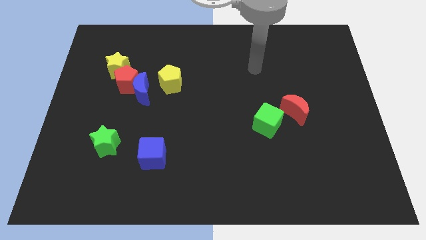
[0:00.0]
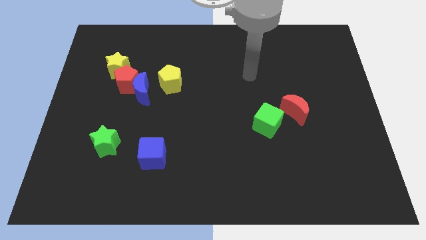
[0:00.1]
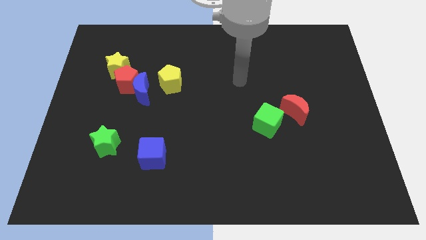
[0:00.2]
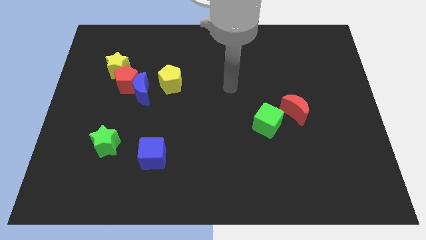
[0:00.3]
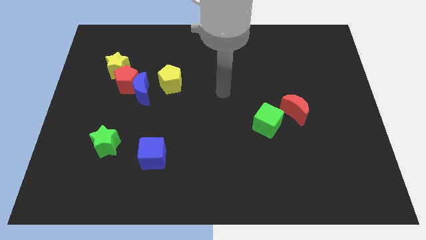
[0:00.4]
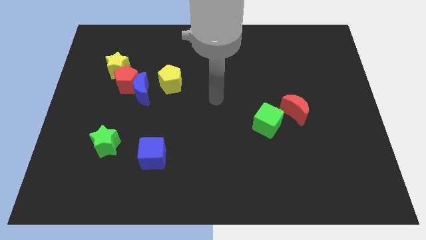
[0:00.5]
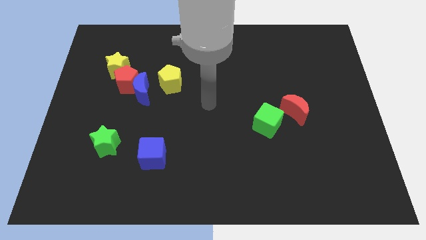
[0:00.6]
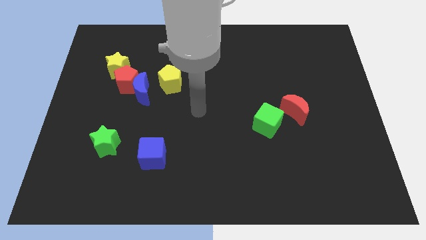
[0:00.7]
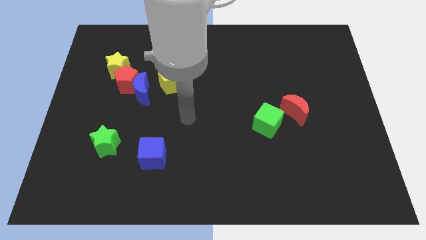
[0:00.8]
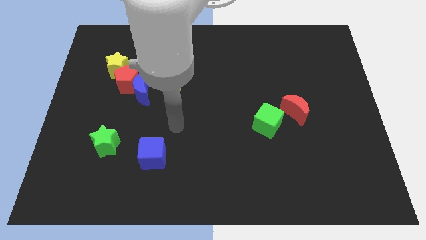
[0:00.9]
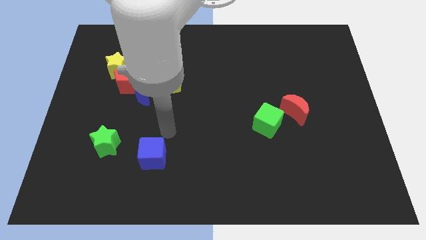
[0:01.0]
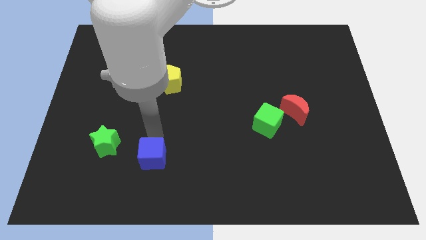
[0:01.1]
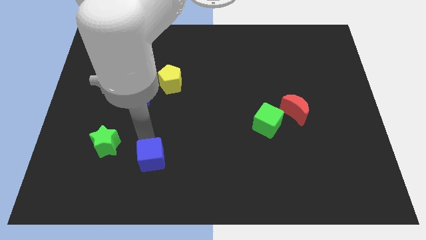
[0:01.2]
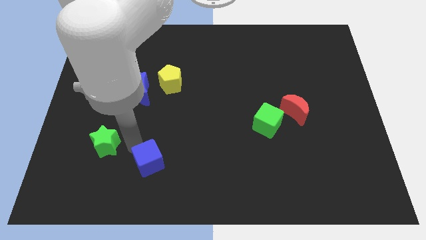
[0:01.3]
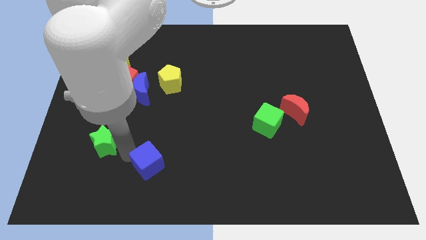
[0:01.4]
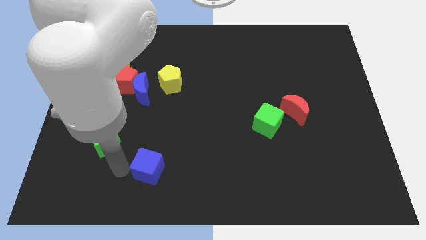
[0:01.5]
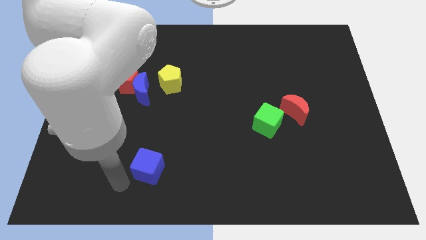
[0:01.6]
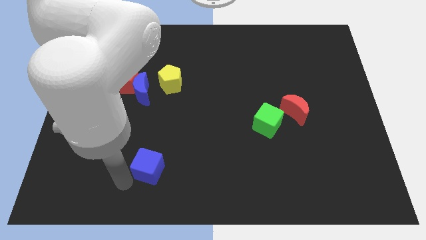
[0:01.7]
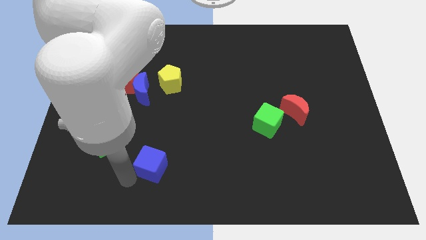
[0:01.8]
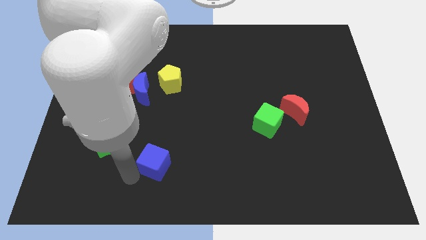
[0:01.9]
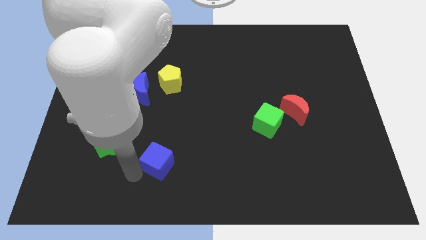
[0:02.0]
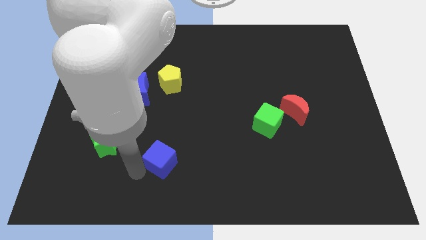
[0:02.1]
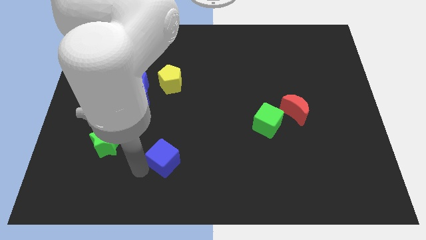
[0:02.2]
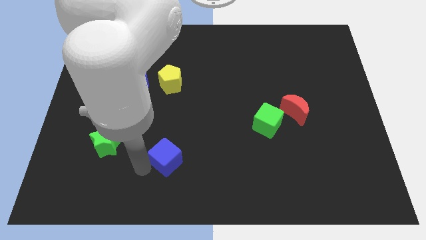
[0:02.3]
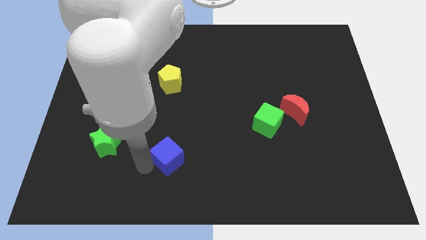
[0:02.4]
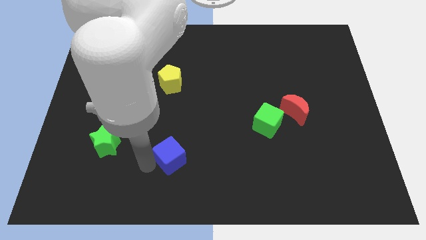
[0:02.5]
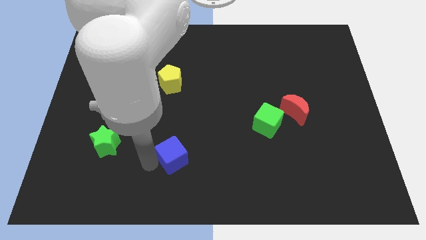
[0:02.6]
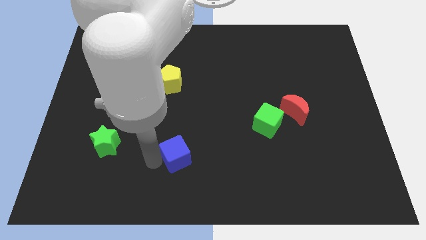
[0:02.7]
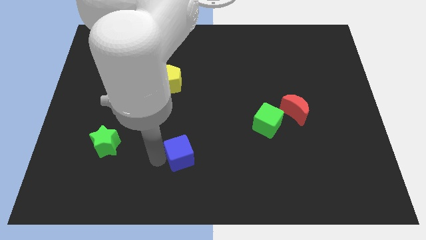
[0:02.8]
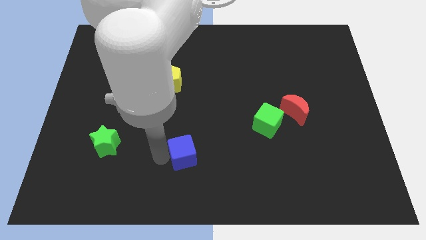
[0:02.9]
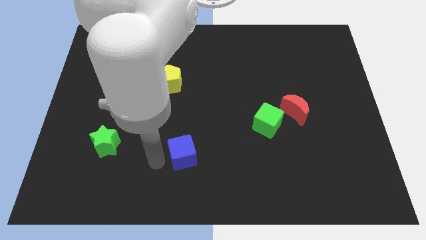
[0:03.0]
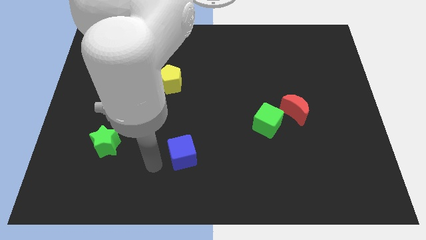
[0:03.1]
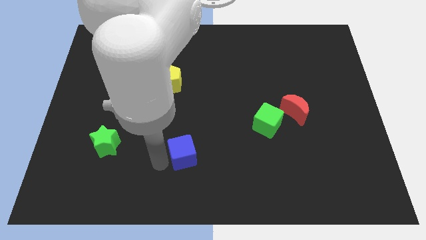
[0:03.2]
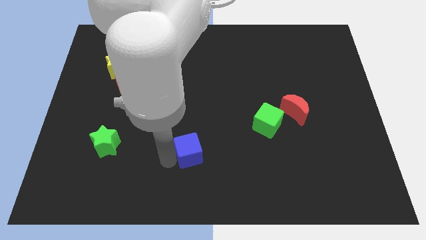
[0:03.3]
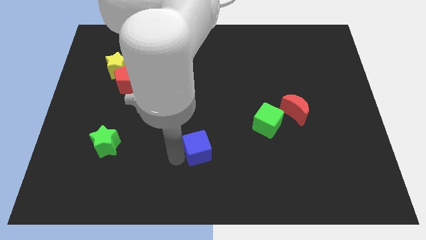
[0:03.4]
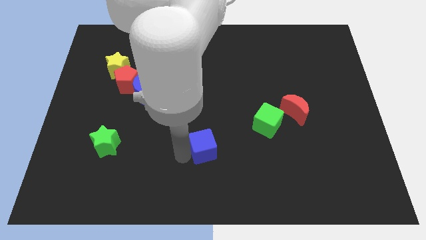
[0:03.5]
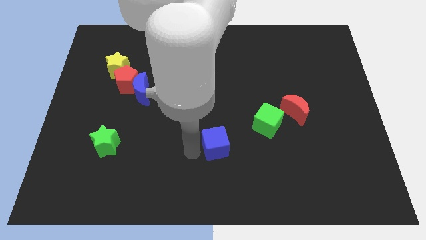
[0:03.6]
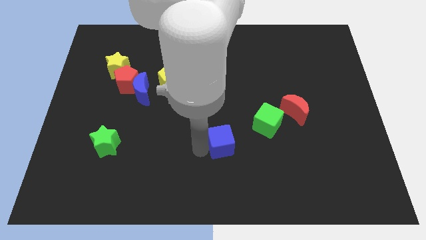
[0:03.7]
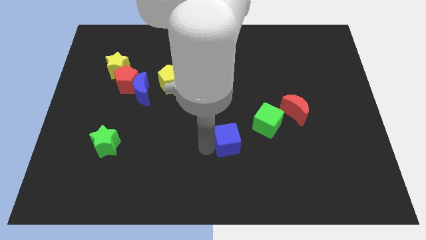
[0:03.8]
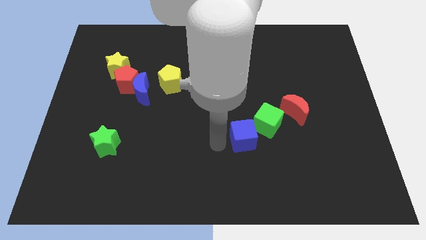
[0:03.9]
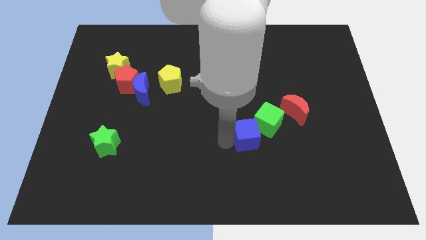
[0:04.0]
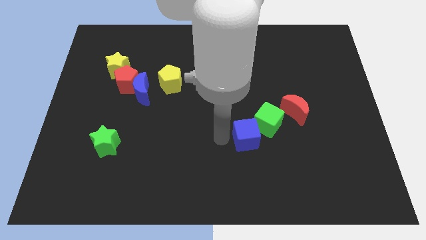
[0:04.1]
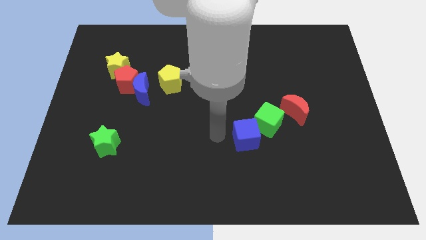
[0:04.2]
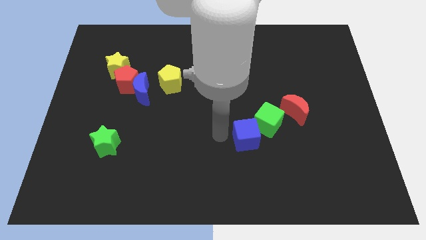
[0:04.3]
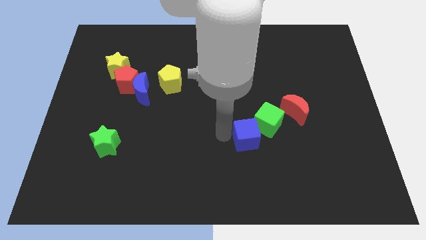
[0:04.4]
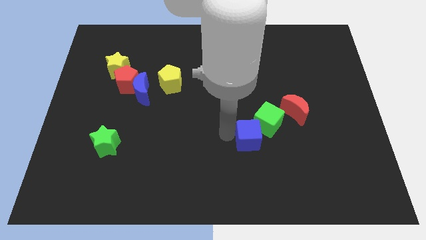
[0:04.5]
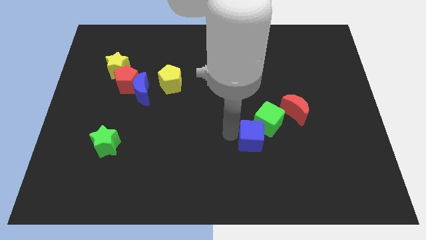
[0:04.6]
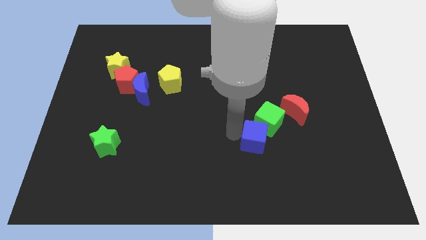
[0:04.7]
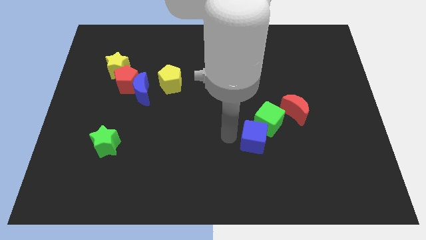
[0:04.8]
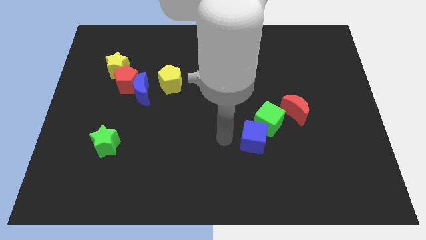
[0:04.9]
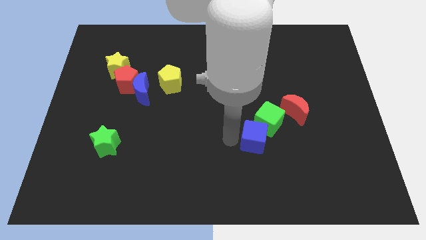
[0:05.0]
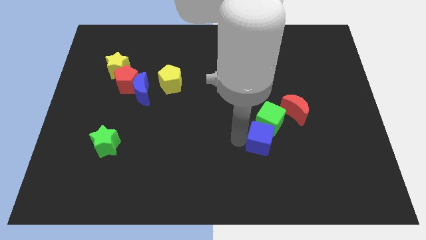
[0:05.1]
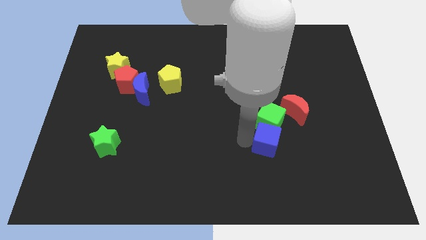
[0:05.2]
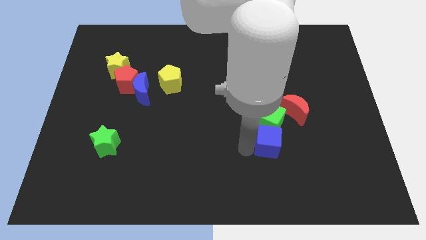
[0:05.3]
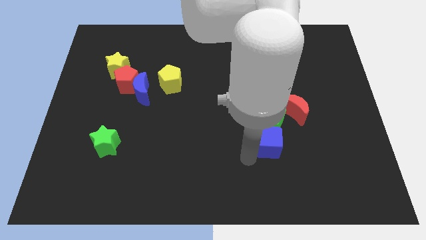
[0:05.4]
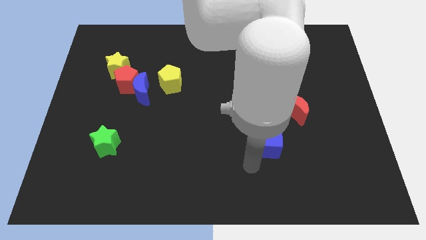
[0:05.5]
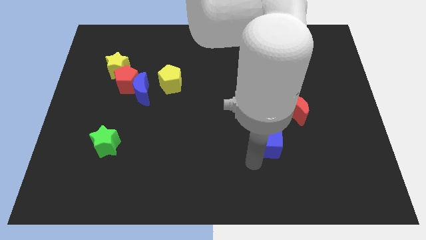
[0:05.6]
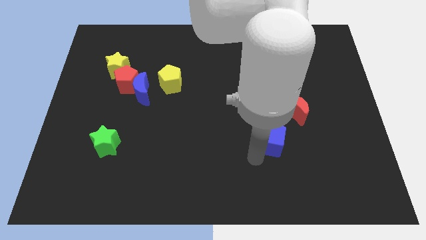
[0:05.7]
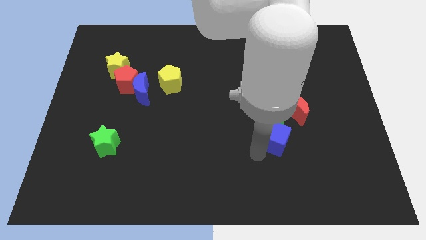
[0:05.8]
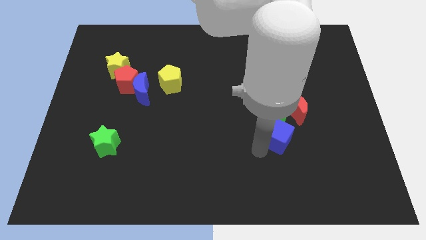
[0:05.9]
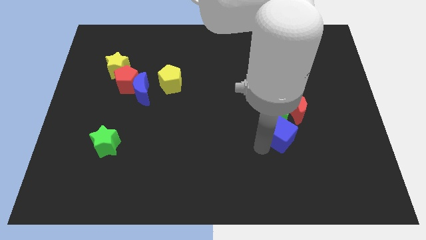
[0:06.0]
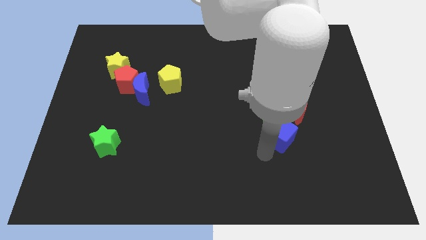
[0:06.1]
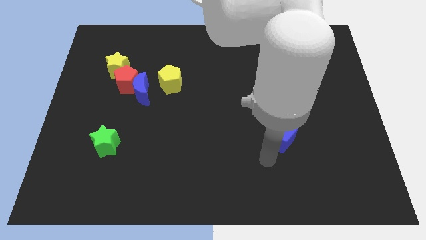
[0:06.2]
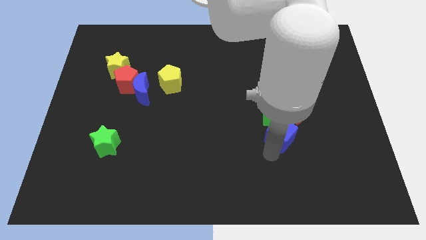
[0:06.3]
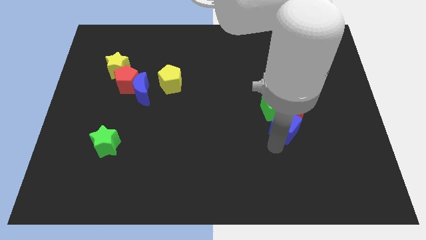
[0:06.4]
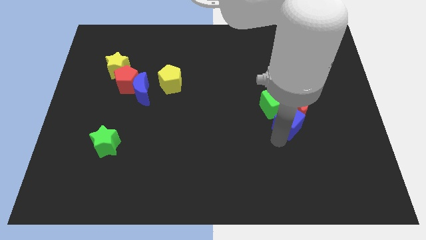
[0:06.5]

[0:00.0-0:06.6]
put the blue cube next to the red moon
